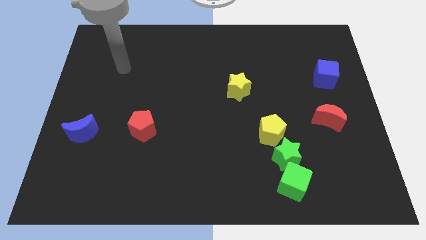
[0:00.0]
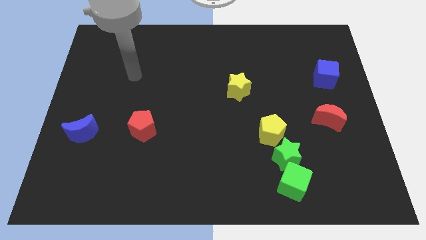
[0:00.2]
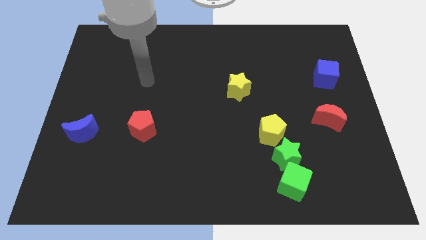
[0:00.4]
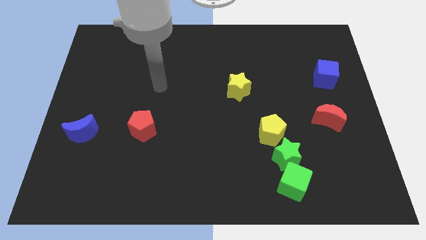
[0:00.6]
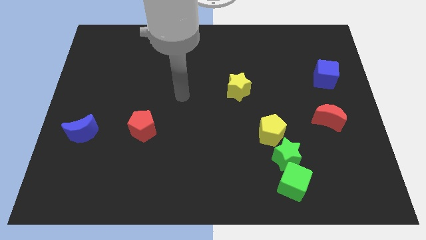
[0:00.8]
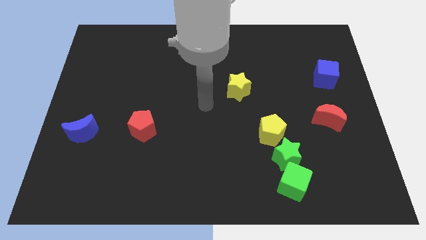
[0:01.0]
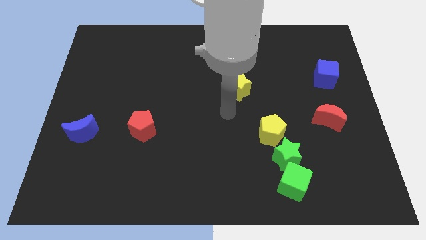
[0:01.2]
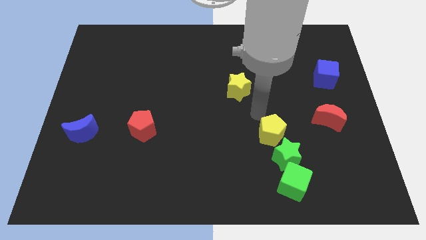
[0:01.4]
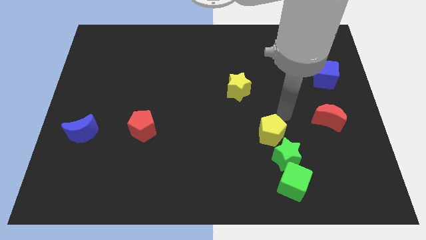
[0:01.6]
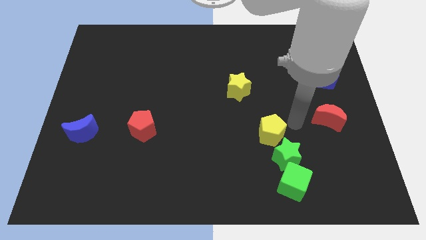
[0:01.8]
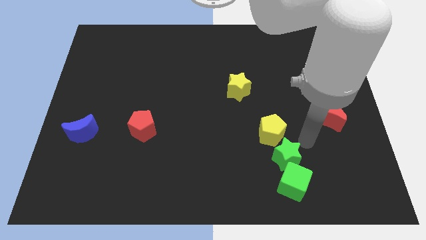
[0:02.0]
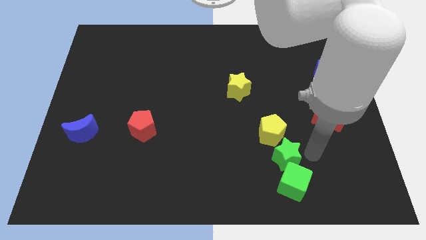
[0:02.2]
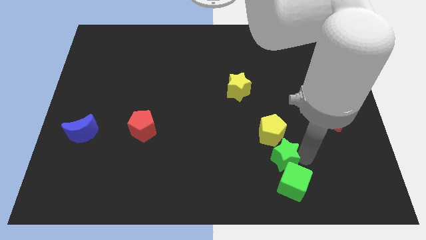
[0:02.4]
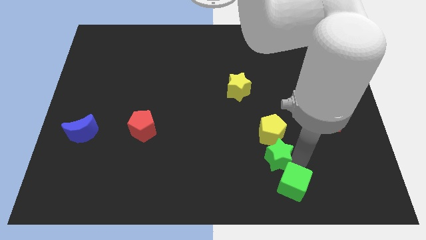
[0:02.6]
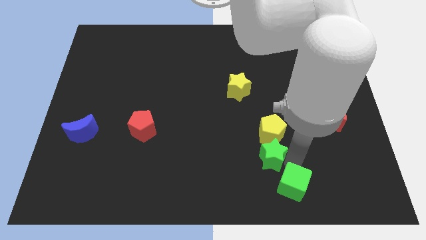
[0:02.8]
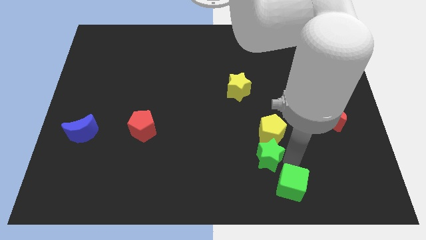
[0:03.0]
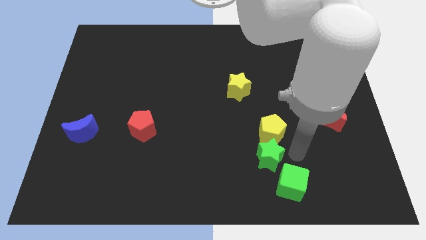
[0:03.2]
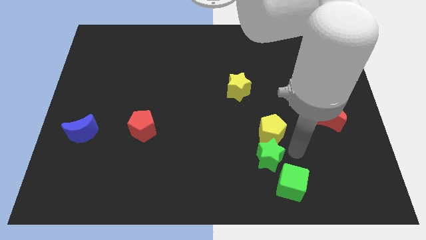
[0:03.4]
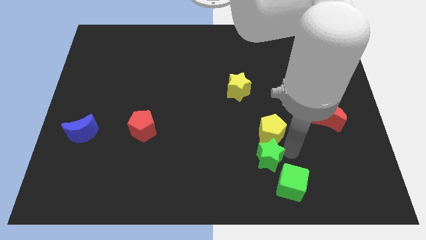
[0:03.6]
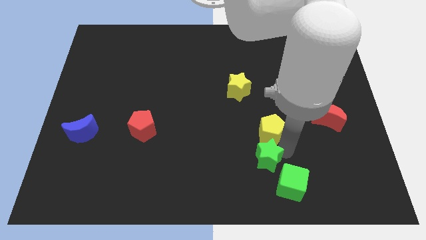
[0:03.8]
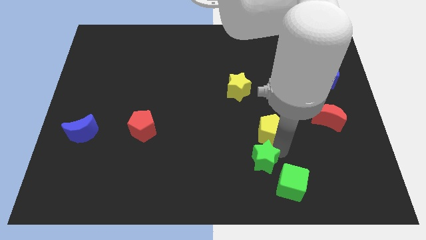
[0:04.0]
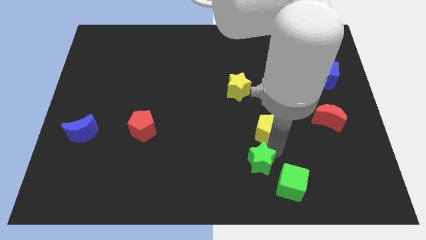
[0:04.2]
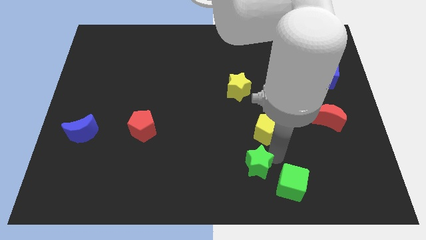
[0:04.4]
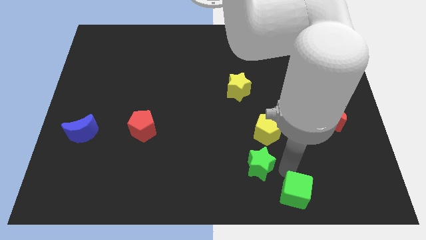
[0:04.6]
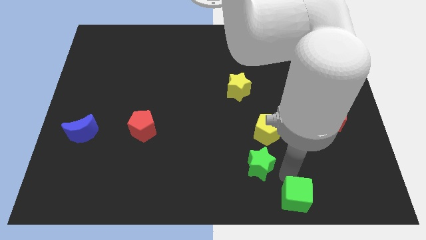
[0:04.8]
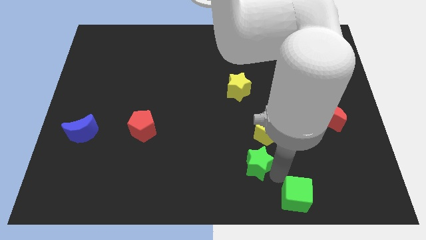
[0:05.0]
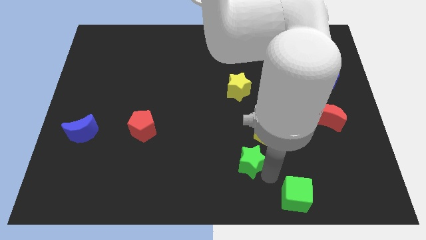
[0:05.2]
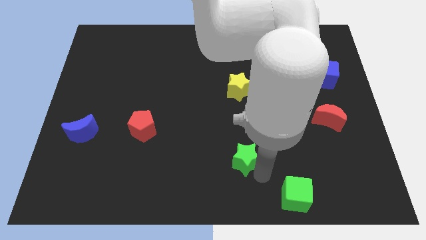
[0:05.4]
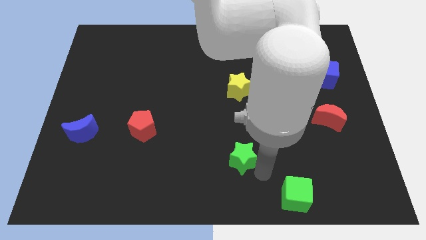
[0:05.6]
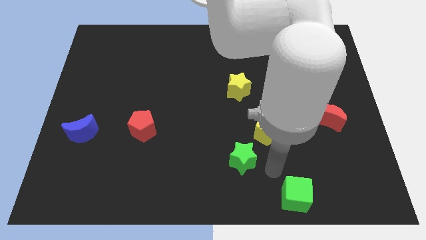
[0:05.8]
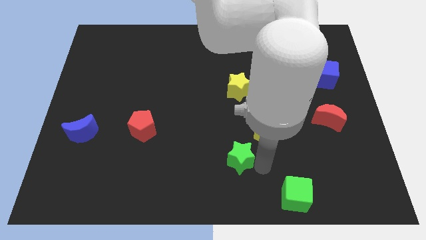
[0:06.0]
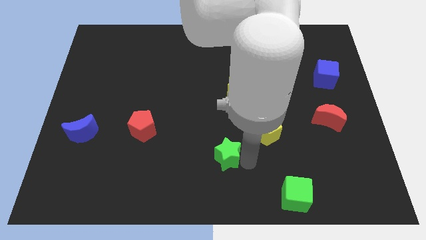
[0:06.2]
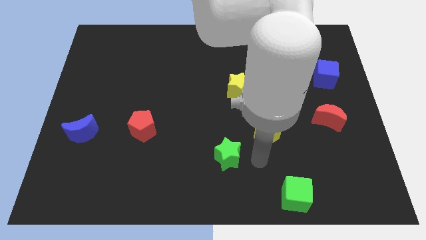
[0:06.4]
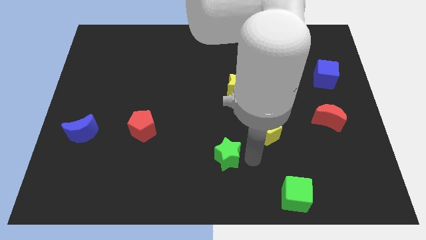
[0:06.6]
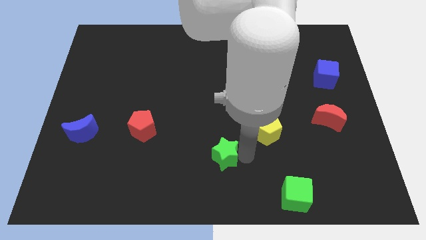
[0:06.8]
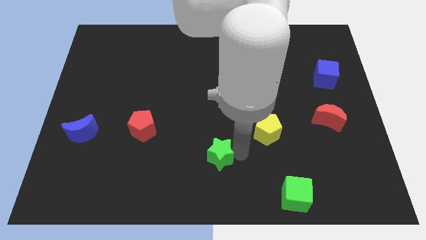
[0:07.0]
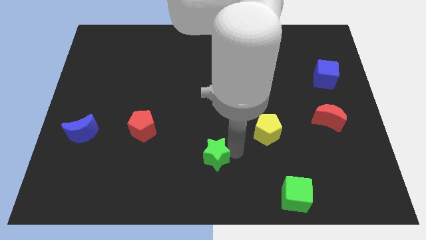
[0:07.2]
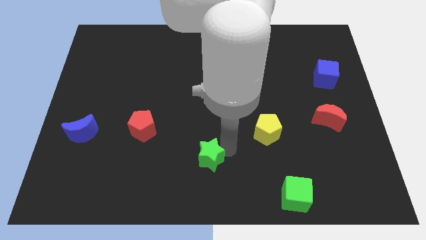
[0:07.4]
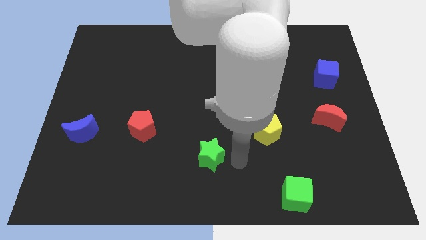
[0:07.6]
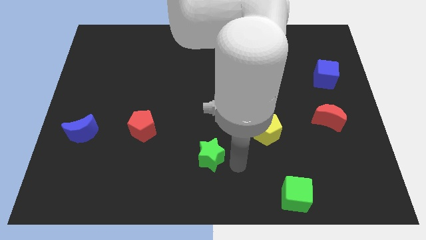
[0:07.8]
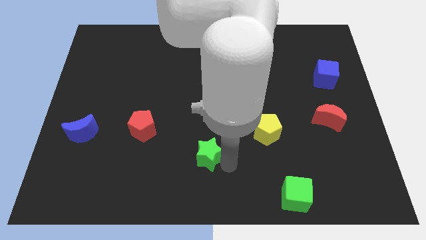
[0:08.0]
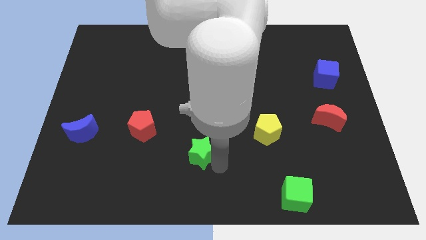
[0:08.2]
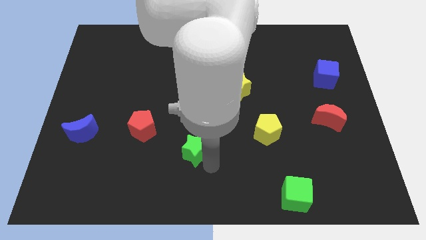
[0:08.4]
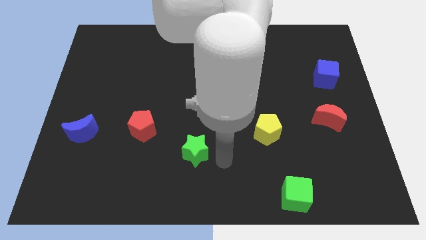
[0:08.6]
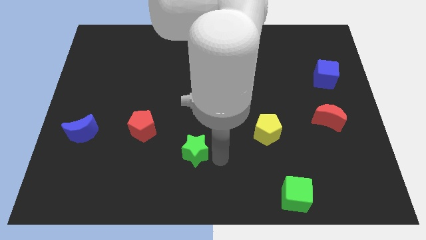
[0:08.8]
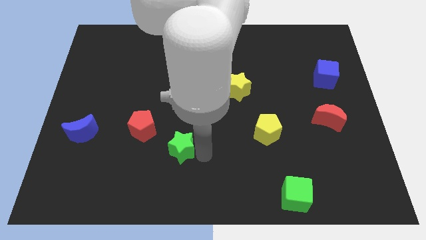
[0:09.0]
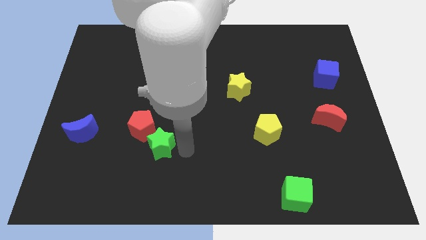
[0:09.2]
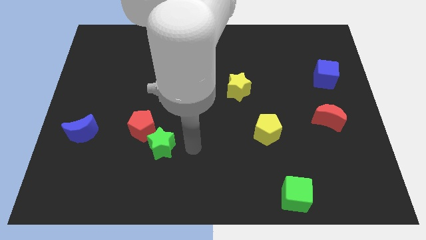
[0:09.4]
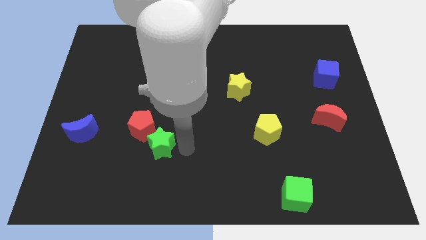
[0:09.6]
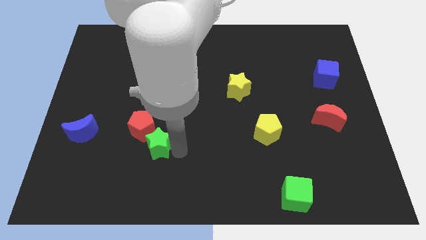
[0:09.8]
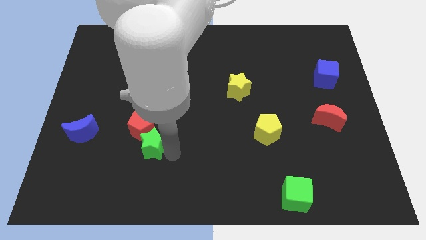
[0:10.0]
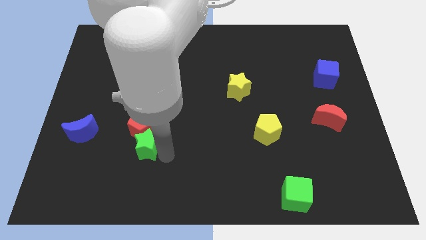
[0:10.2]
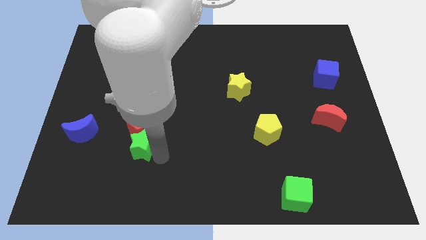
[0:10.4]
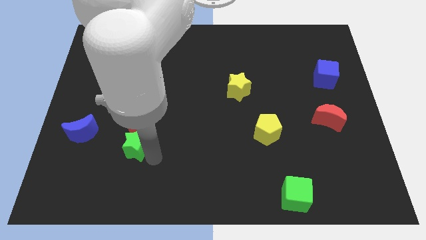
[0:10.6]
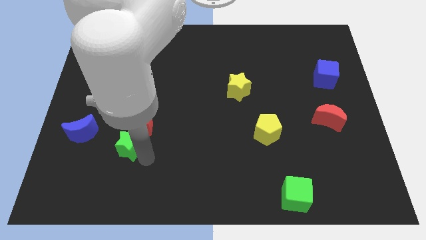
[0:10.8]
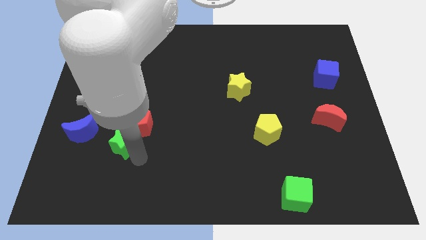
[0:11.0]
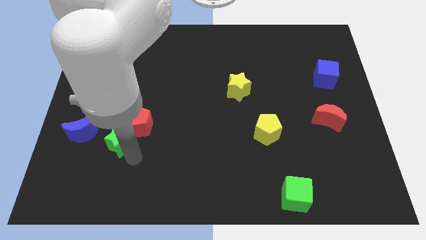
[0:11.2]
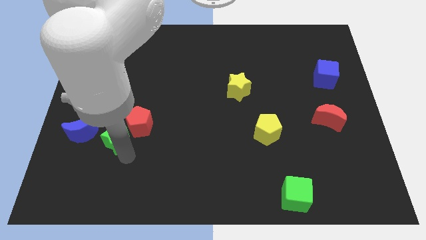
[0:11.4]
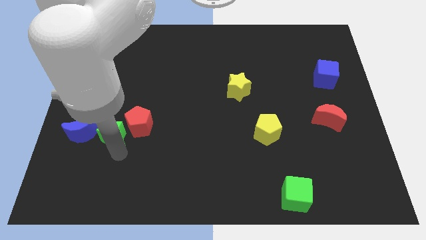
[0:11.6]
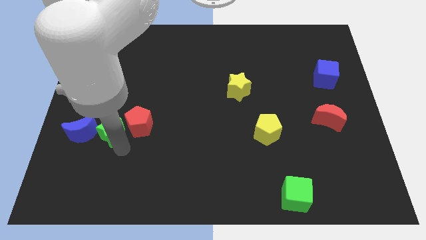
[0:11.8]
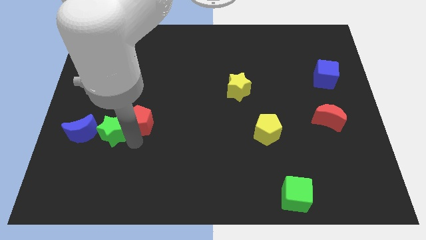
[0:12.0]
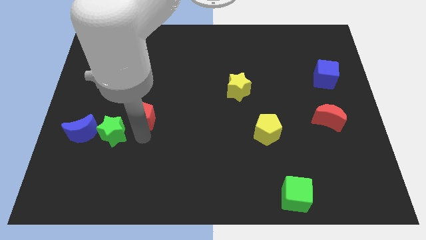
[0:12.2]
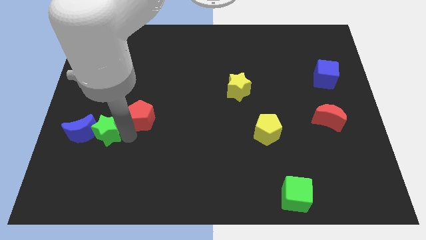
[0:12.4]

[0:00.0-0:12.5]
push the green star towards the blue moon

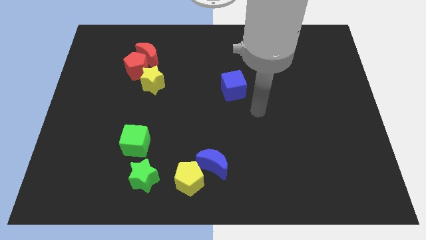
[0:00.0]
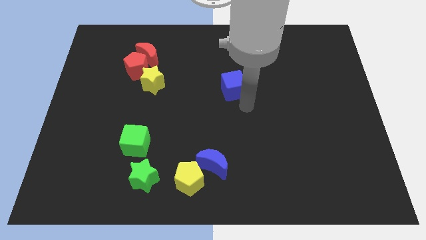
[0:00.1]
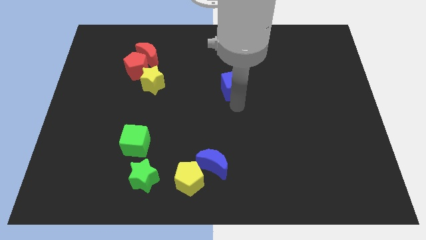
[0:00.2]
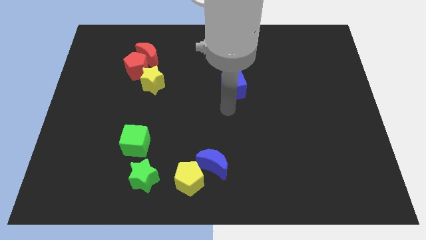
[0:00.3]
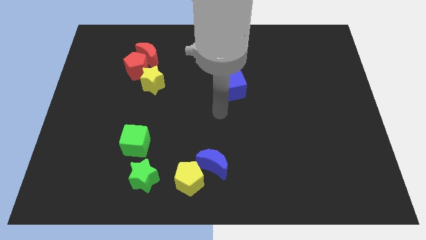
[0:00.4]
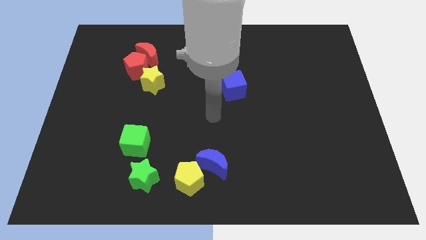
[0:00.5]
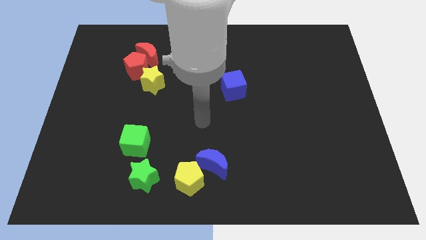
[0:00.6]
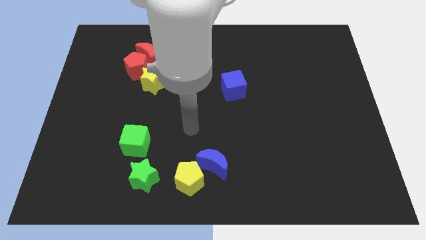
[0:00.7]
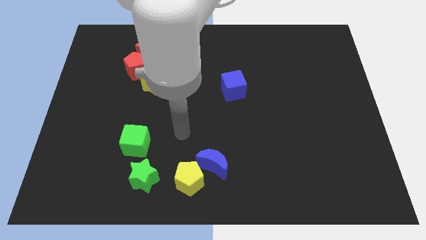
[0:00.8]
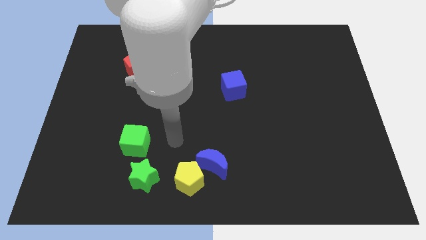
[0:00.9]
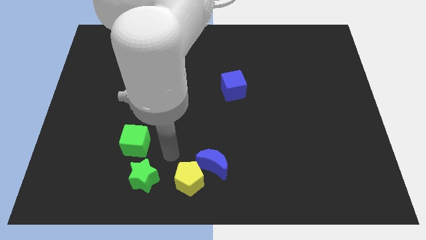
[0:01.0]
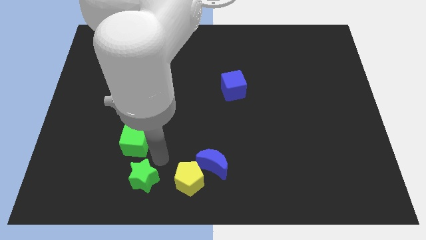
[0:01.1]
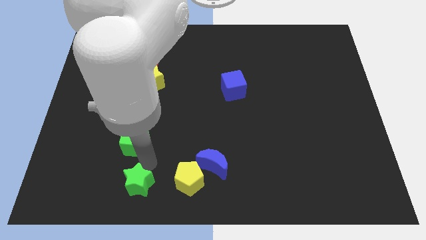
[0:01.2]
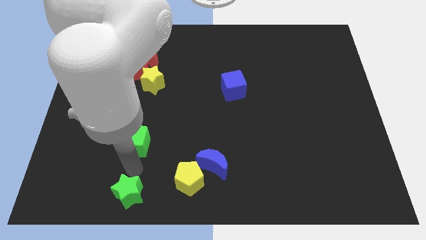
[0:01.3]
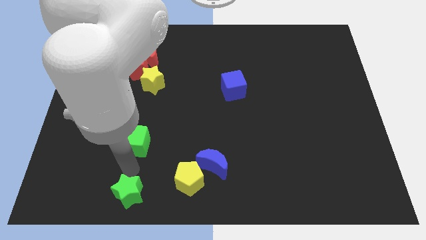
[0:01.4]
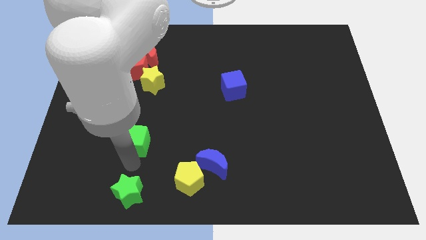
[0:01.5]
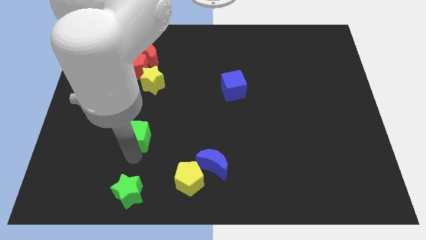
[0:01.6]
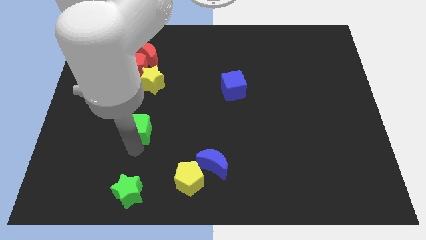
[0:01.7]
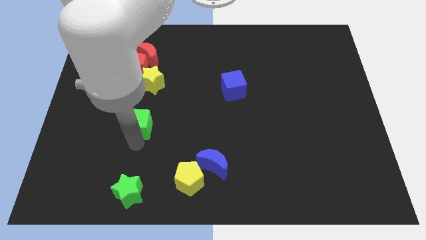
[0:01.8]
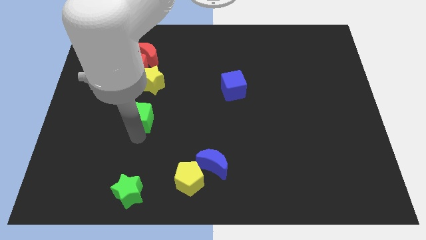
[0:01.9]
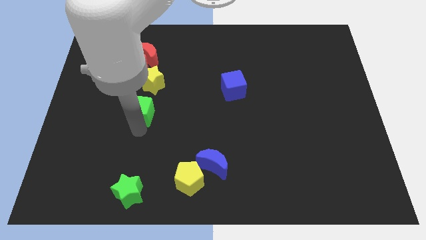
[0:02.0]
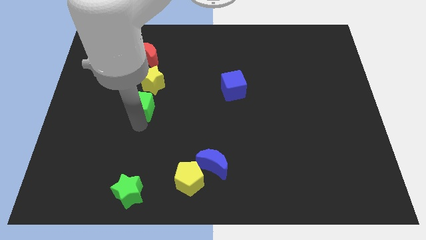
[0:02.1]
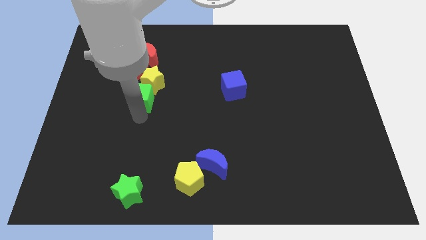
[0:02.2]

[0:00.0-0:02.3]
put the green cube towards the yellow star
